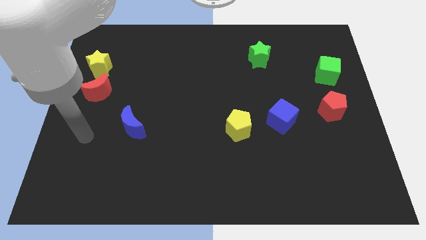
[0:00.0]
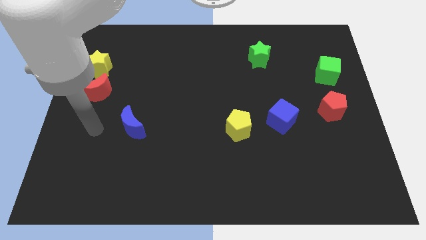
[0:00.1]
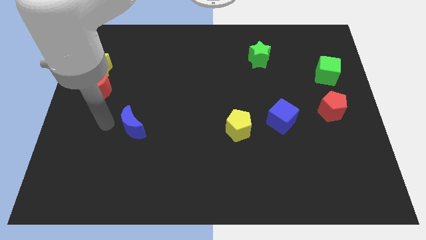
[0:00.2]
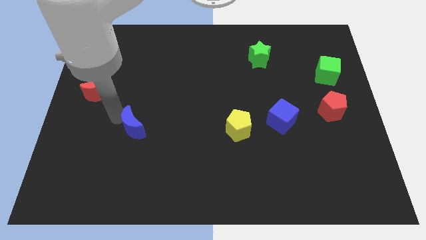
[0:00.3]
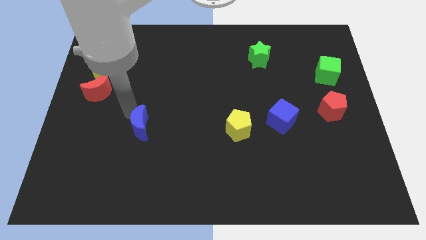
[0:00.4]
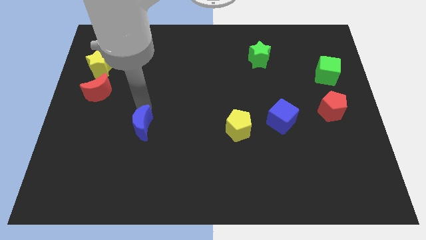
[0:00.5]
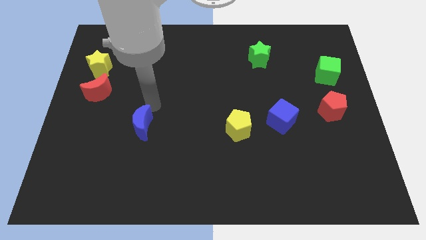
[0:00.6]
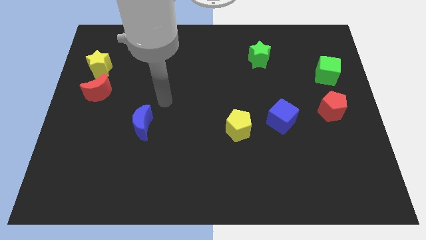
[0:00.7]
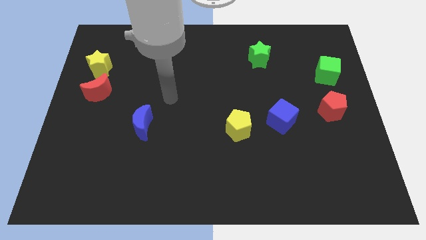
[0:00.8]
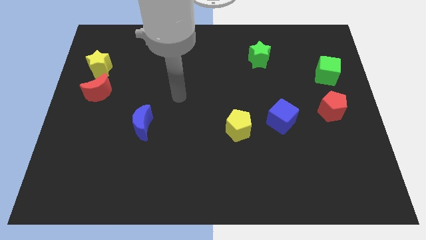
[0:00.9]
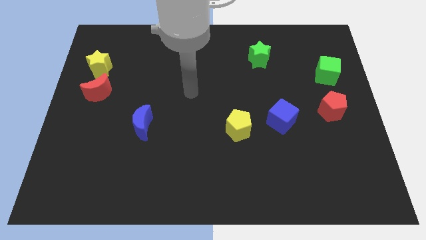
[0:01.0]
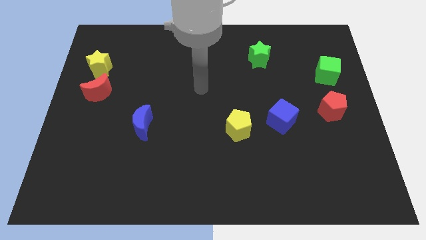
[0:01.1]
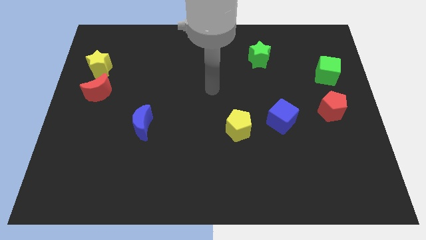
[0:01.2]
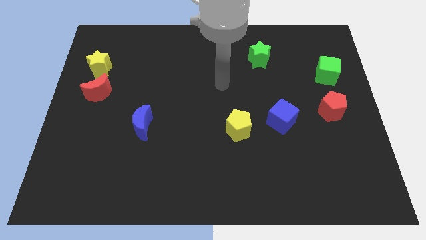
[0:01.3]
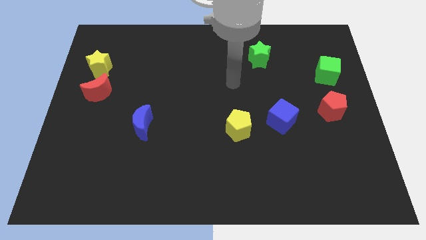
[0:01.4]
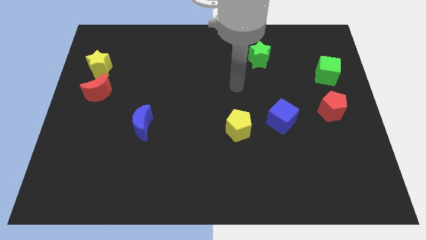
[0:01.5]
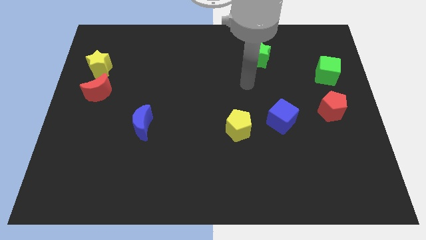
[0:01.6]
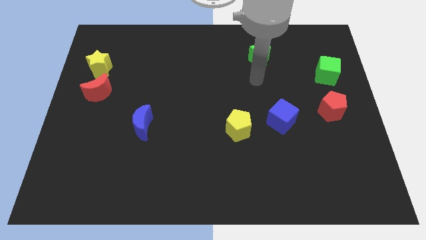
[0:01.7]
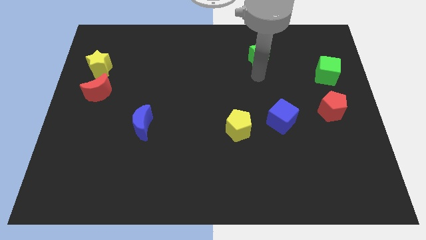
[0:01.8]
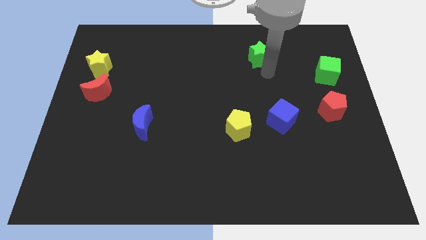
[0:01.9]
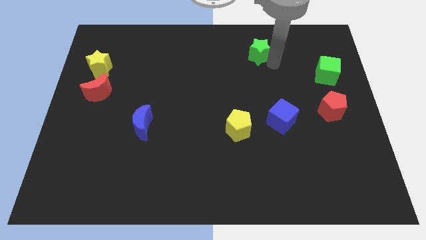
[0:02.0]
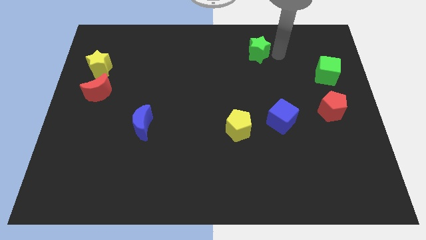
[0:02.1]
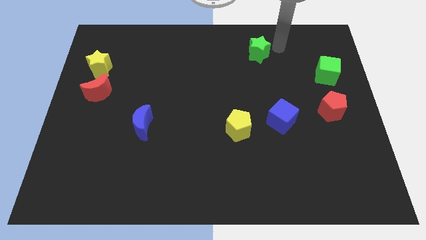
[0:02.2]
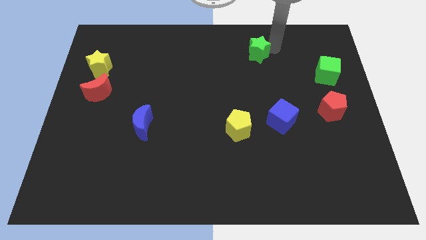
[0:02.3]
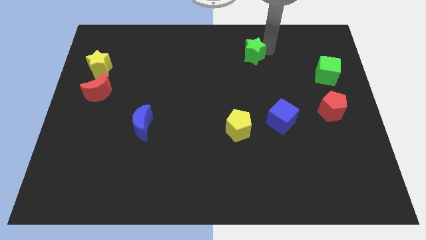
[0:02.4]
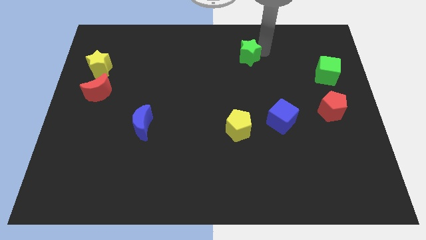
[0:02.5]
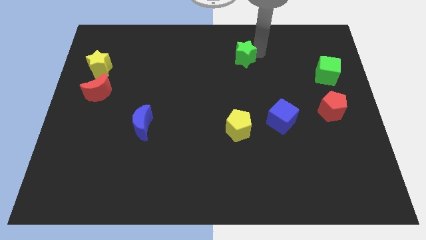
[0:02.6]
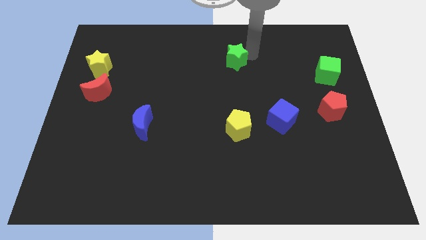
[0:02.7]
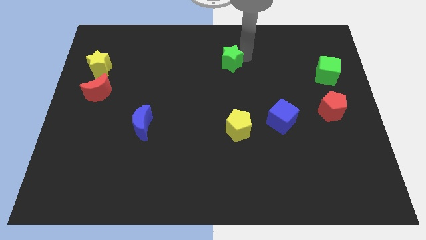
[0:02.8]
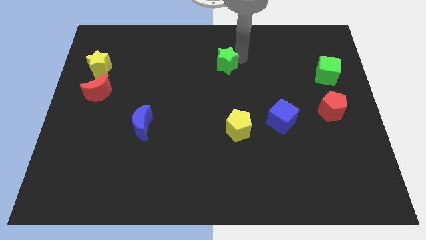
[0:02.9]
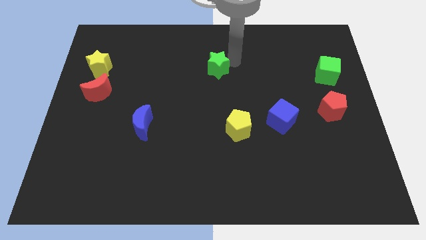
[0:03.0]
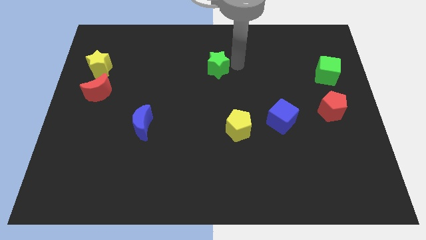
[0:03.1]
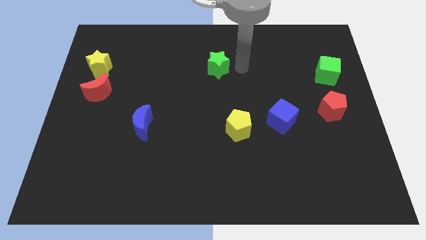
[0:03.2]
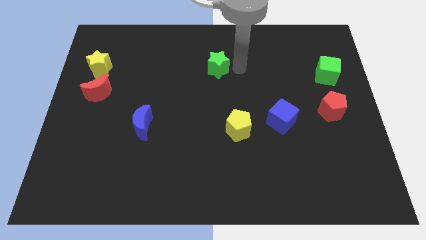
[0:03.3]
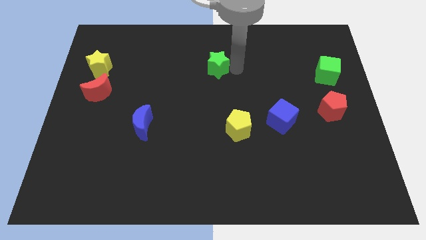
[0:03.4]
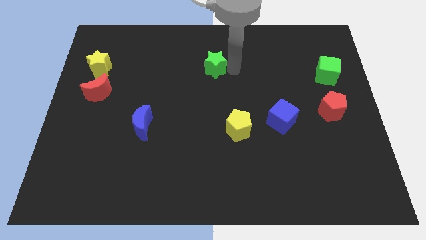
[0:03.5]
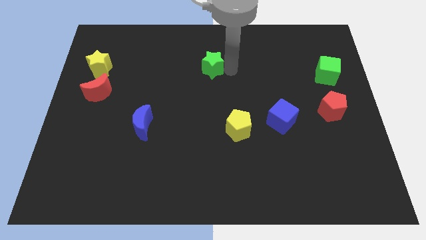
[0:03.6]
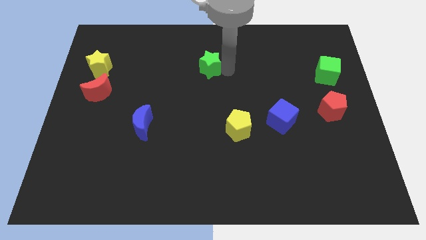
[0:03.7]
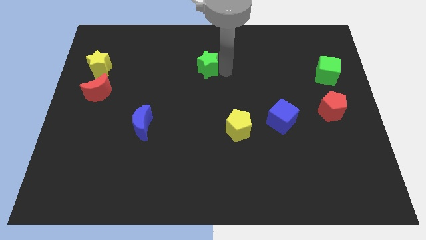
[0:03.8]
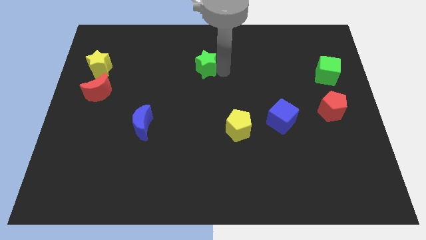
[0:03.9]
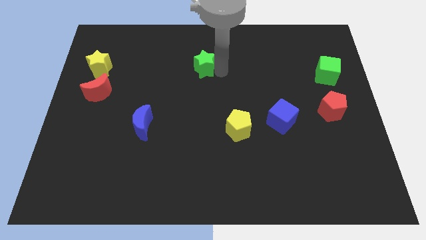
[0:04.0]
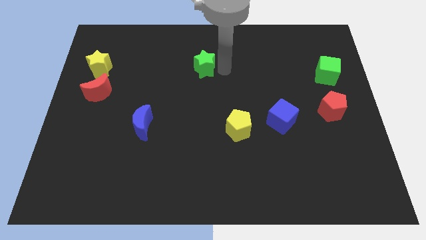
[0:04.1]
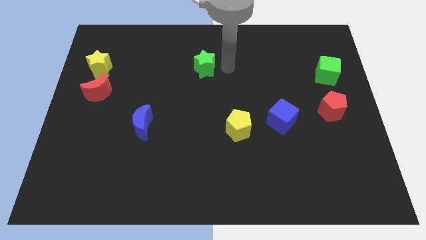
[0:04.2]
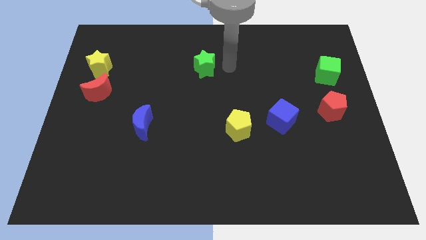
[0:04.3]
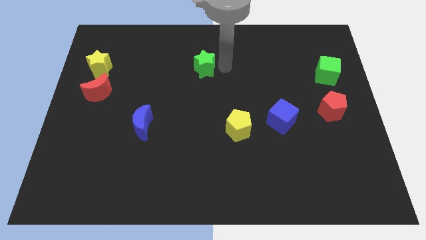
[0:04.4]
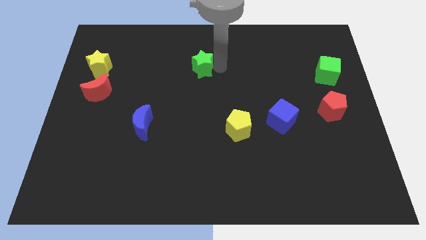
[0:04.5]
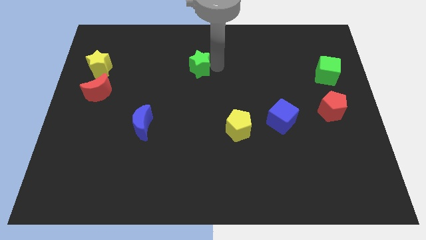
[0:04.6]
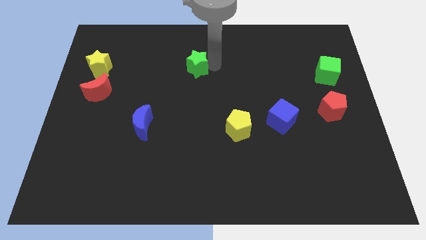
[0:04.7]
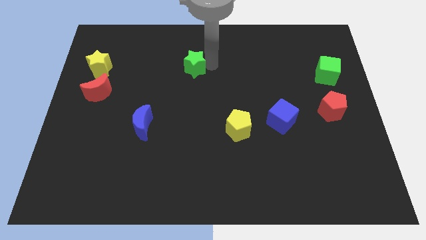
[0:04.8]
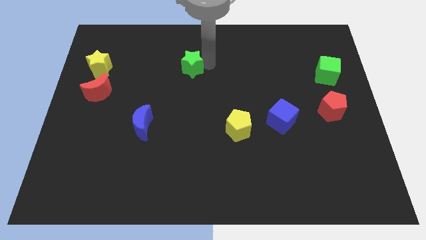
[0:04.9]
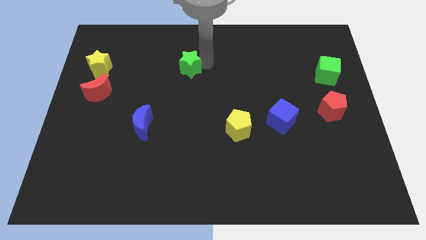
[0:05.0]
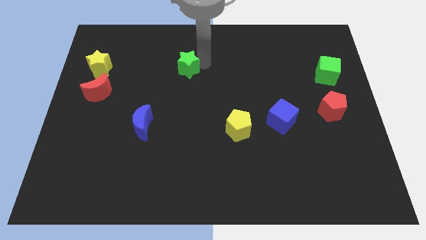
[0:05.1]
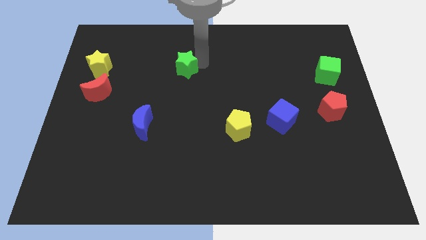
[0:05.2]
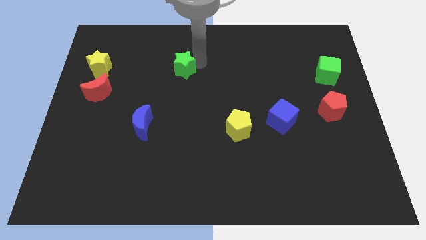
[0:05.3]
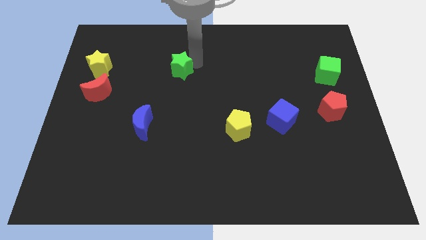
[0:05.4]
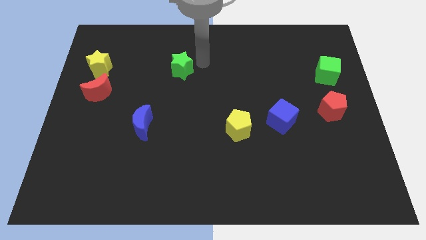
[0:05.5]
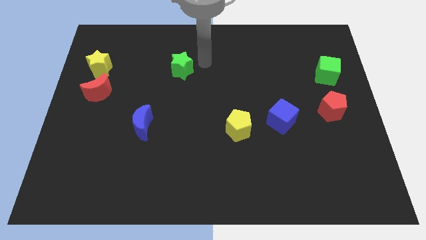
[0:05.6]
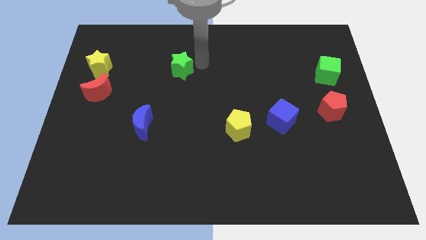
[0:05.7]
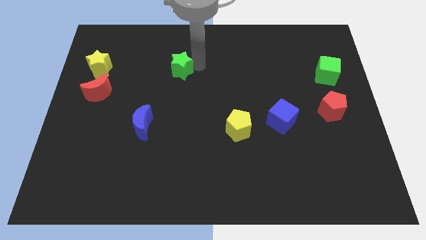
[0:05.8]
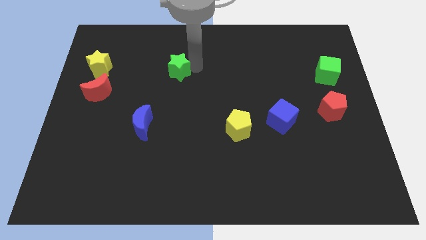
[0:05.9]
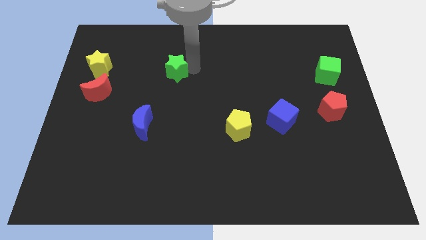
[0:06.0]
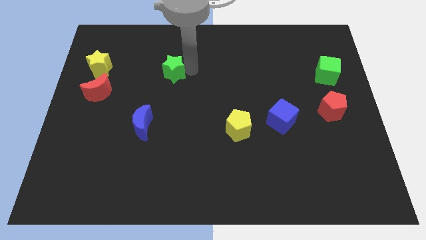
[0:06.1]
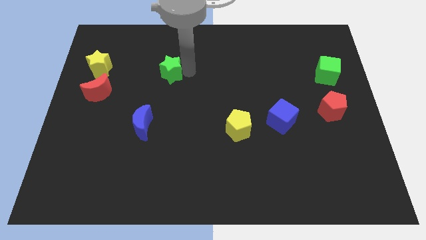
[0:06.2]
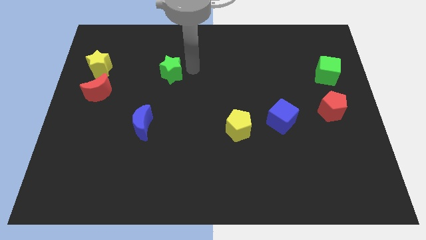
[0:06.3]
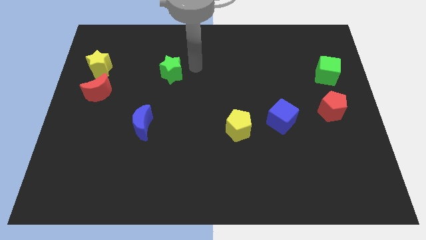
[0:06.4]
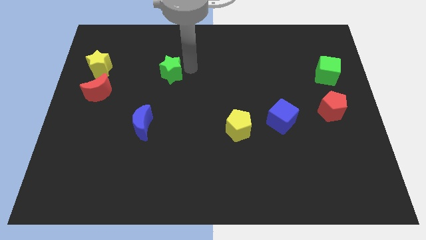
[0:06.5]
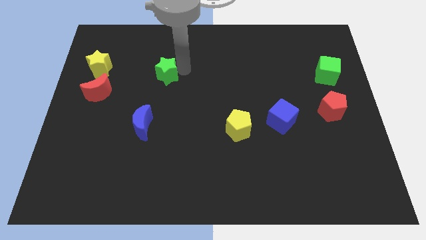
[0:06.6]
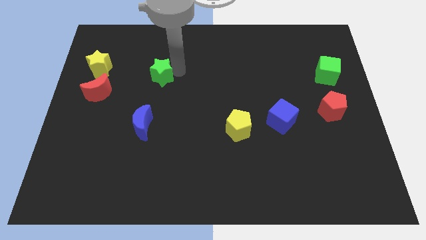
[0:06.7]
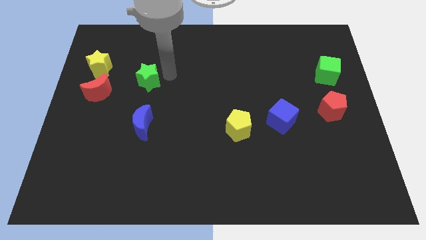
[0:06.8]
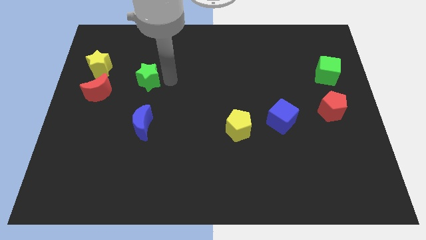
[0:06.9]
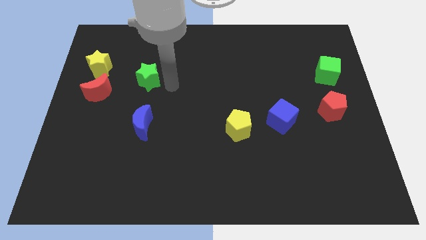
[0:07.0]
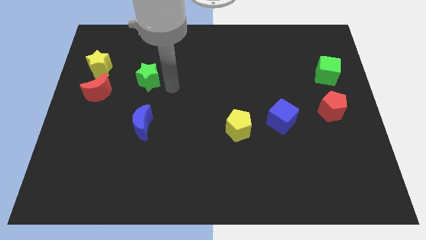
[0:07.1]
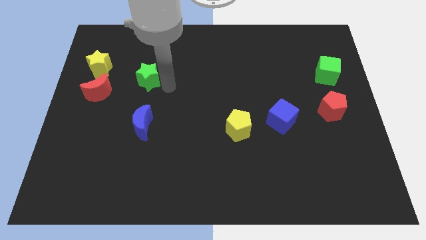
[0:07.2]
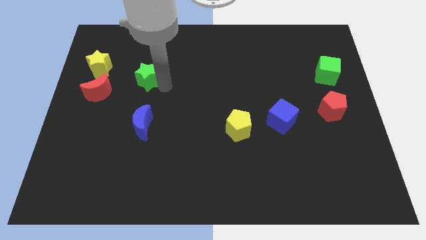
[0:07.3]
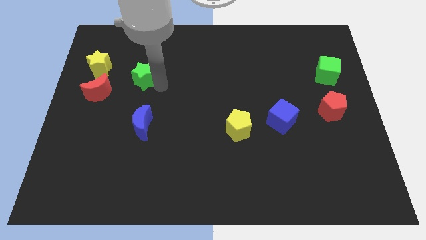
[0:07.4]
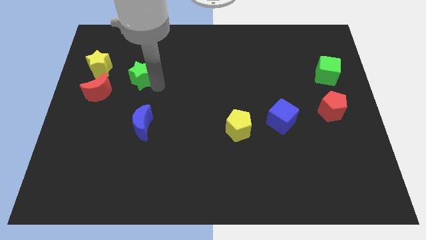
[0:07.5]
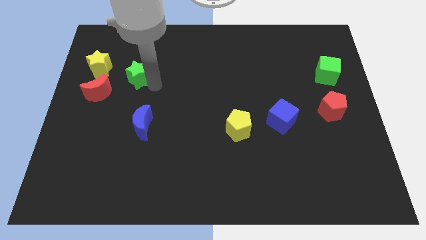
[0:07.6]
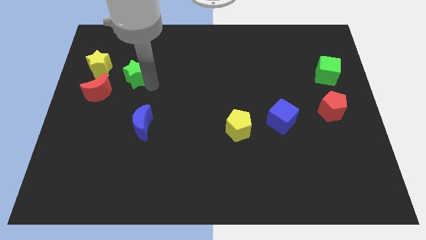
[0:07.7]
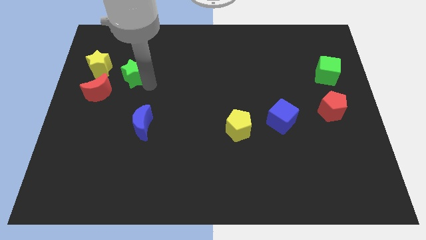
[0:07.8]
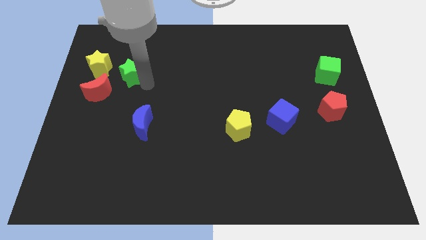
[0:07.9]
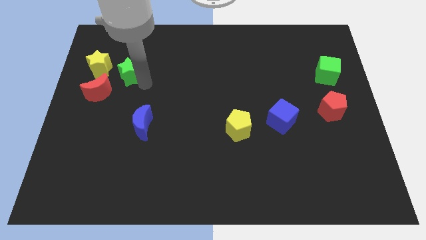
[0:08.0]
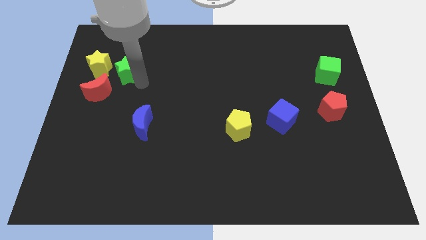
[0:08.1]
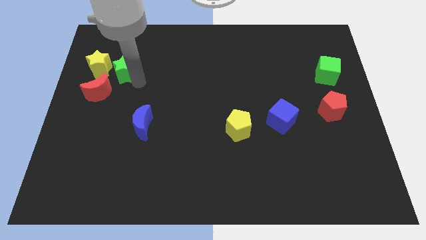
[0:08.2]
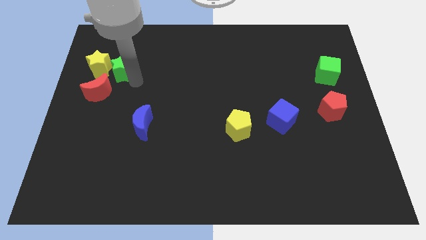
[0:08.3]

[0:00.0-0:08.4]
move the green star towards the yellow star
